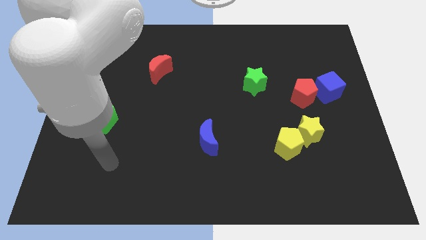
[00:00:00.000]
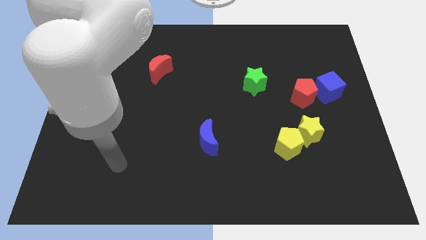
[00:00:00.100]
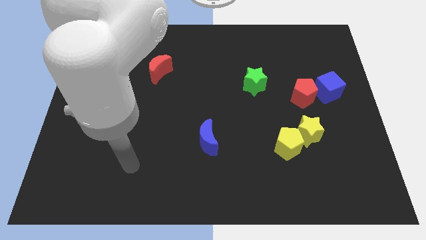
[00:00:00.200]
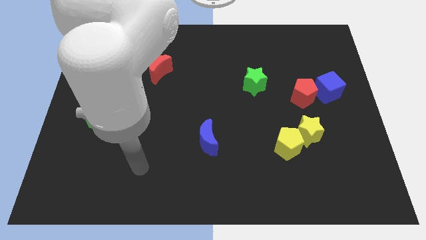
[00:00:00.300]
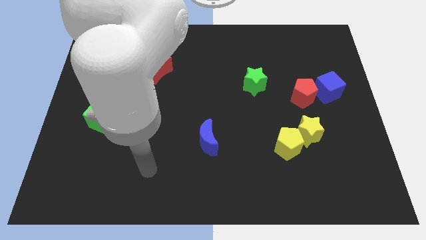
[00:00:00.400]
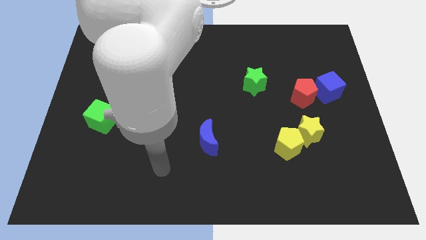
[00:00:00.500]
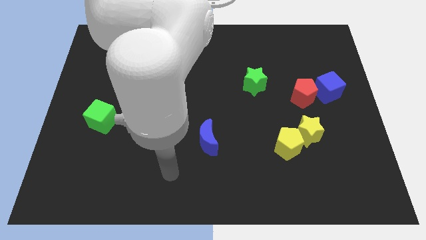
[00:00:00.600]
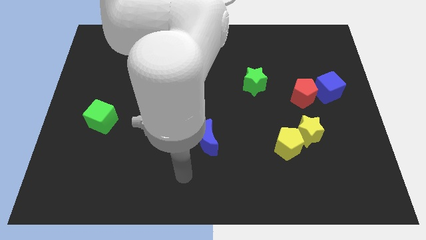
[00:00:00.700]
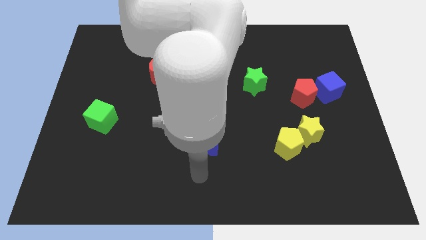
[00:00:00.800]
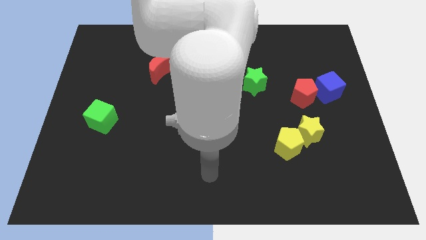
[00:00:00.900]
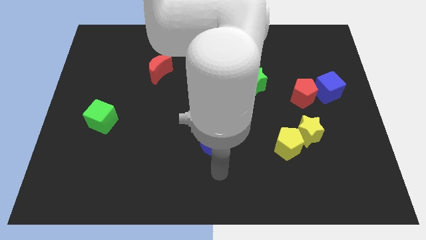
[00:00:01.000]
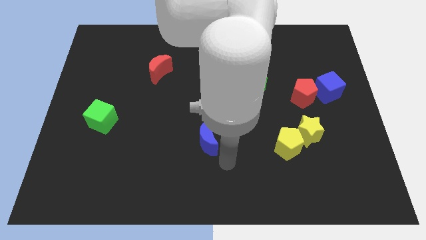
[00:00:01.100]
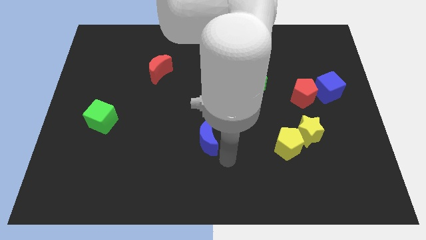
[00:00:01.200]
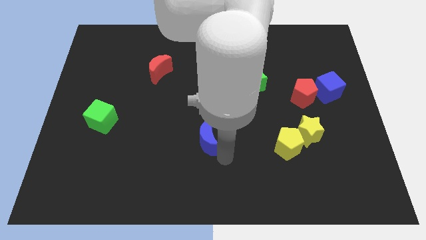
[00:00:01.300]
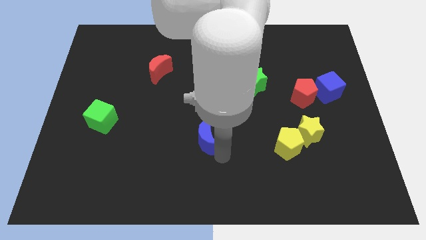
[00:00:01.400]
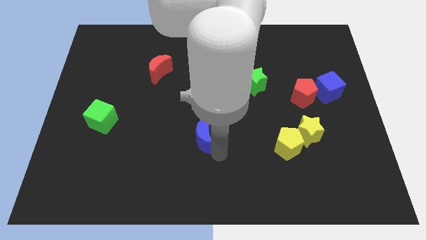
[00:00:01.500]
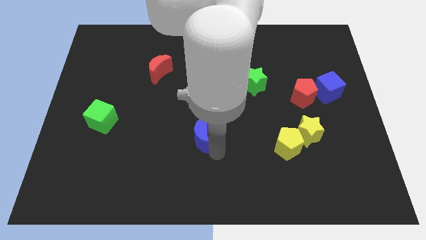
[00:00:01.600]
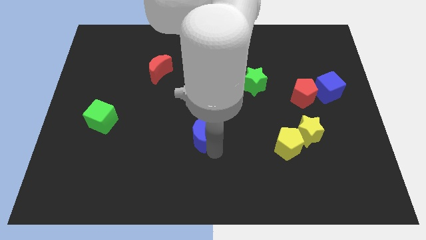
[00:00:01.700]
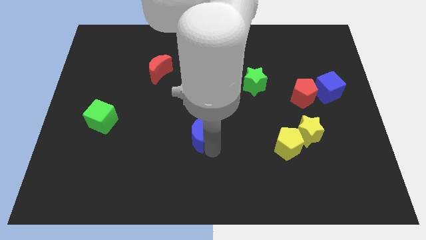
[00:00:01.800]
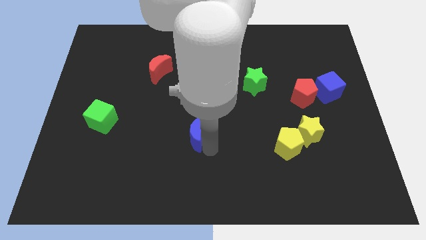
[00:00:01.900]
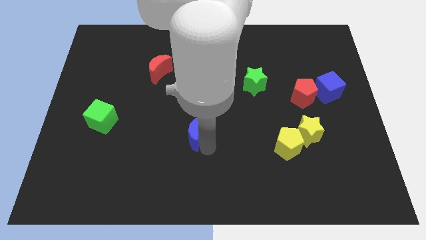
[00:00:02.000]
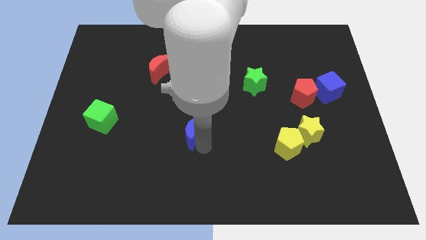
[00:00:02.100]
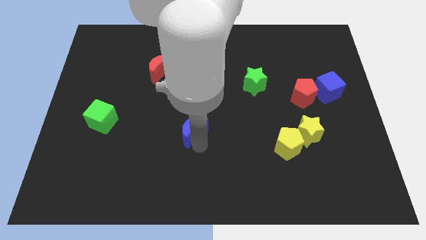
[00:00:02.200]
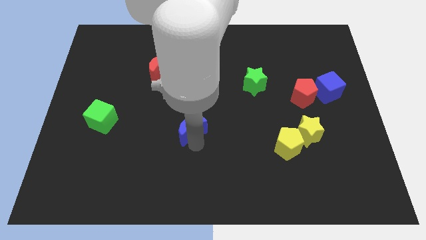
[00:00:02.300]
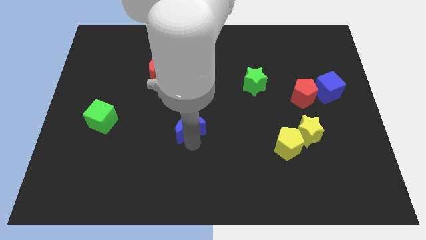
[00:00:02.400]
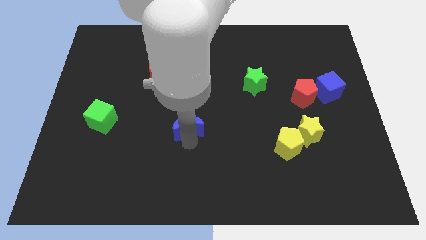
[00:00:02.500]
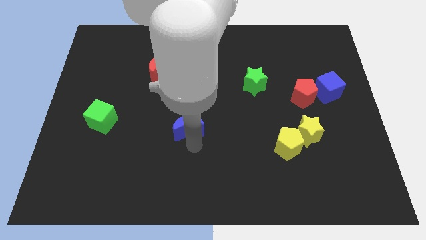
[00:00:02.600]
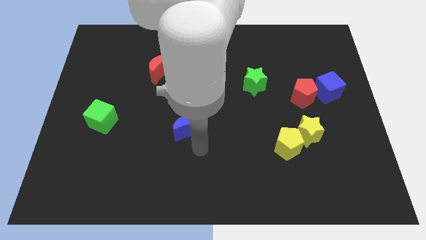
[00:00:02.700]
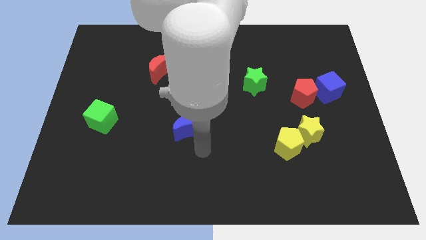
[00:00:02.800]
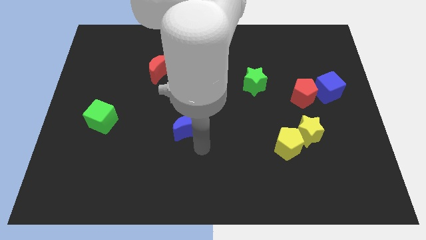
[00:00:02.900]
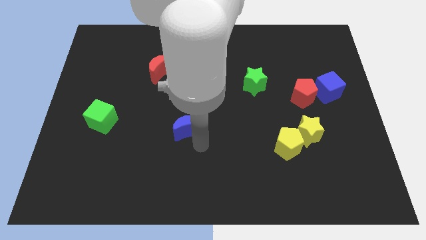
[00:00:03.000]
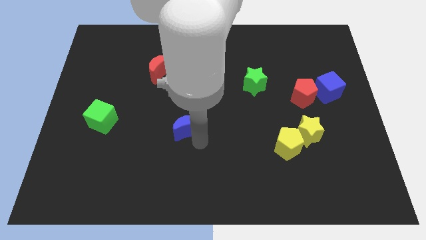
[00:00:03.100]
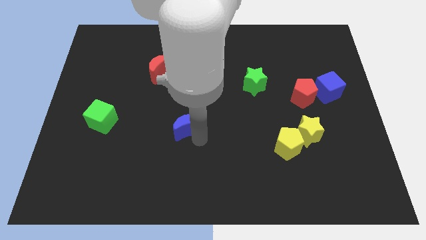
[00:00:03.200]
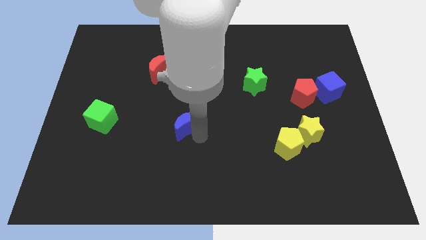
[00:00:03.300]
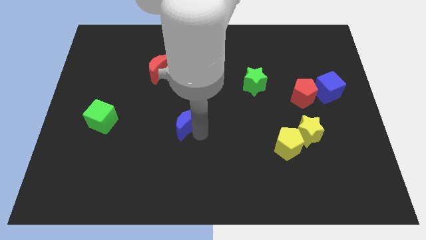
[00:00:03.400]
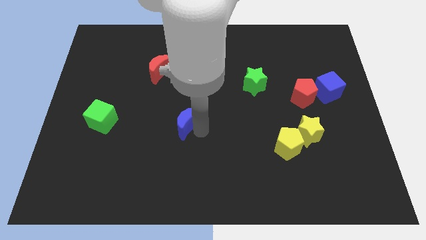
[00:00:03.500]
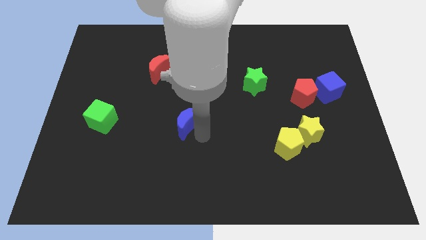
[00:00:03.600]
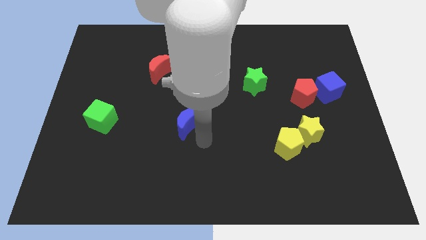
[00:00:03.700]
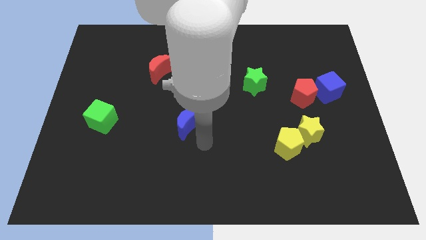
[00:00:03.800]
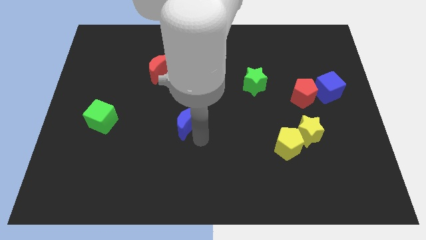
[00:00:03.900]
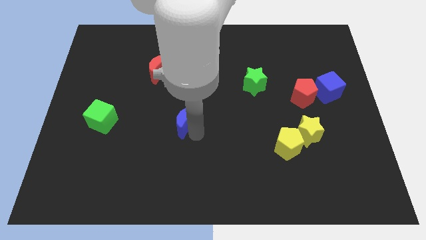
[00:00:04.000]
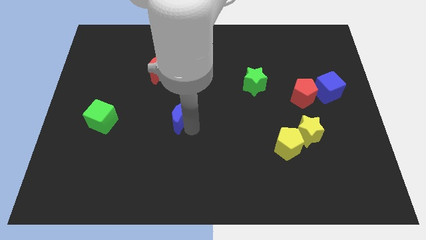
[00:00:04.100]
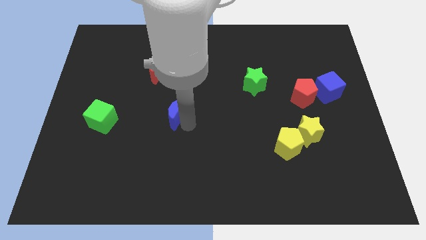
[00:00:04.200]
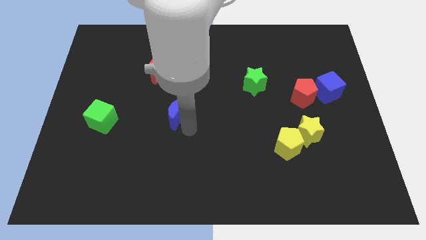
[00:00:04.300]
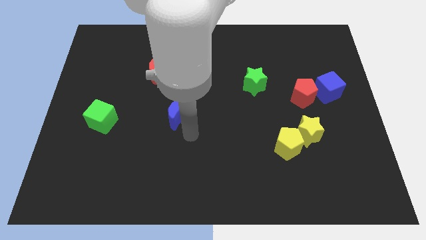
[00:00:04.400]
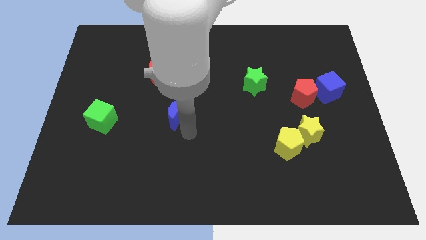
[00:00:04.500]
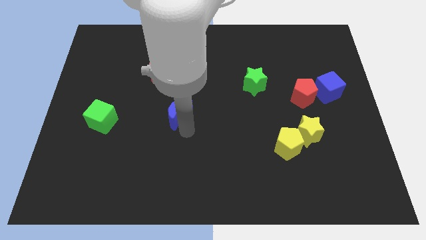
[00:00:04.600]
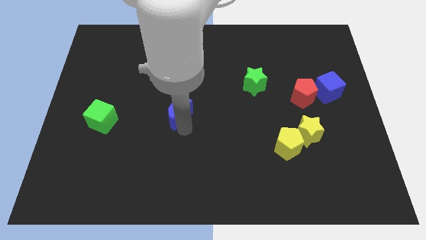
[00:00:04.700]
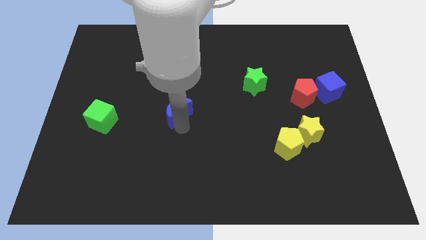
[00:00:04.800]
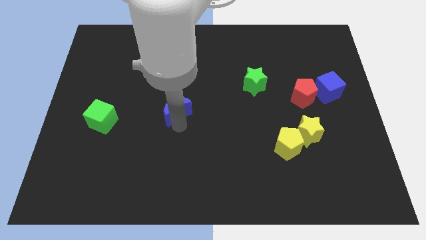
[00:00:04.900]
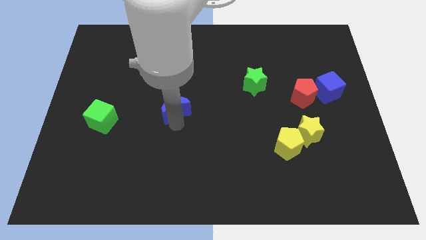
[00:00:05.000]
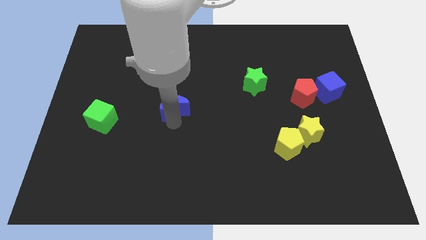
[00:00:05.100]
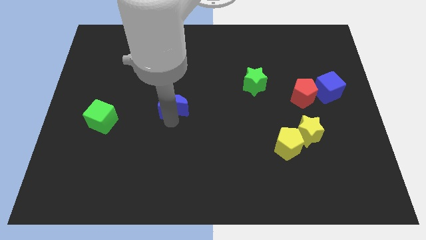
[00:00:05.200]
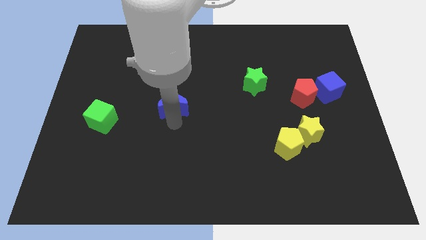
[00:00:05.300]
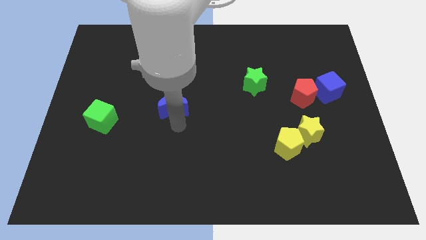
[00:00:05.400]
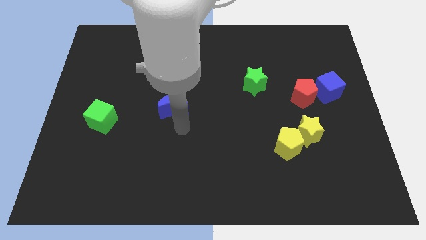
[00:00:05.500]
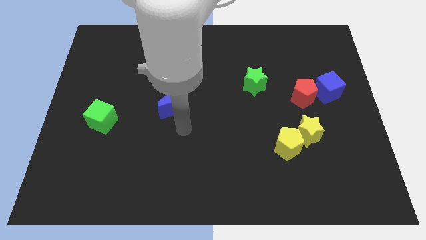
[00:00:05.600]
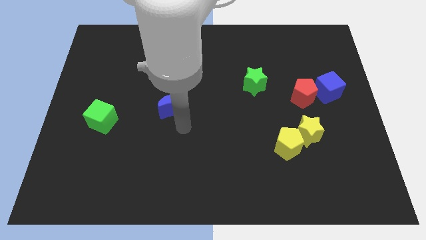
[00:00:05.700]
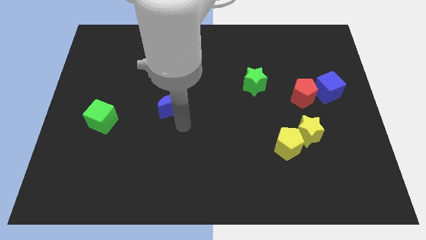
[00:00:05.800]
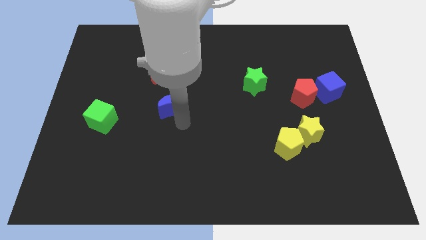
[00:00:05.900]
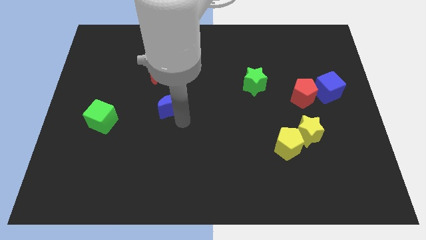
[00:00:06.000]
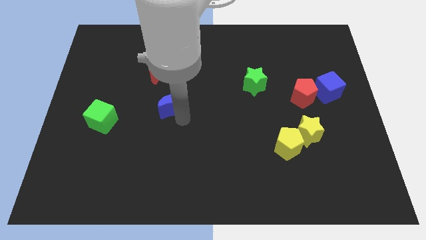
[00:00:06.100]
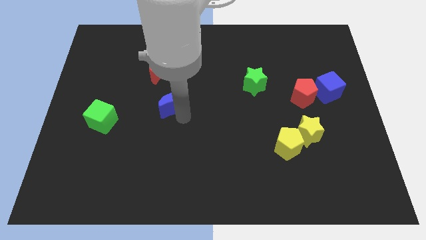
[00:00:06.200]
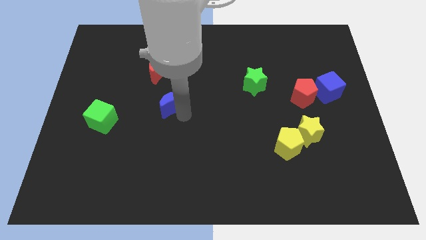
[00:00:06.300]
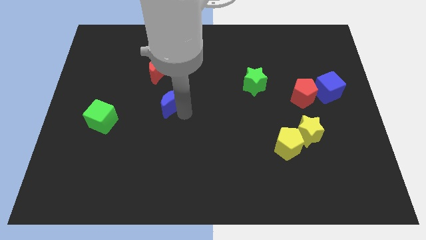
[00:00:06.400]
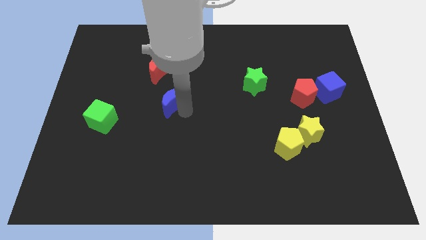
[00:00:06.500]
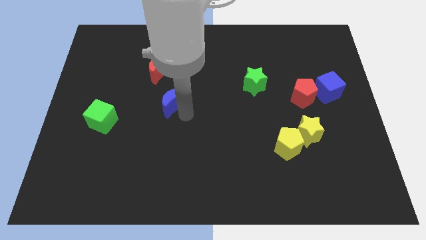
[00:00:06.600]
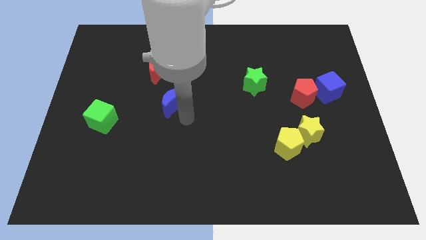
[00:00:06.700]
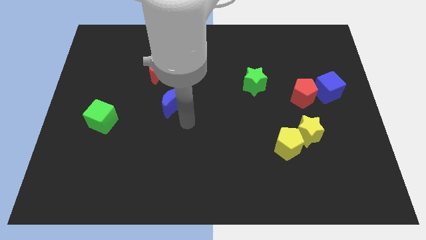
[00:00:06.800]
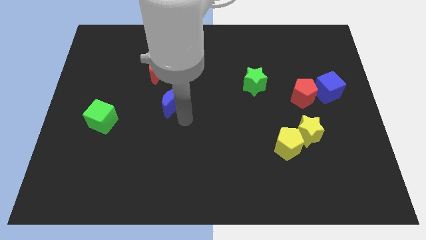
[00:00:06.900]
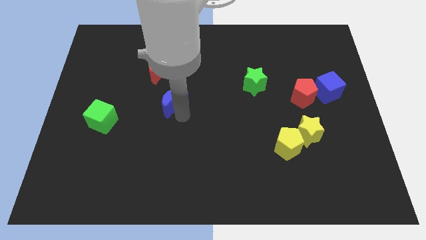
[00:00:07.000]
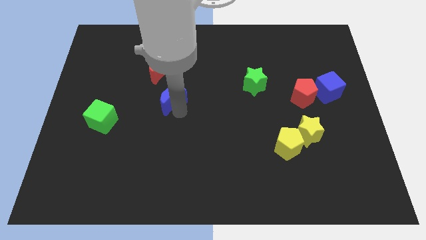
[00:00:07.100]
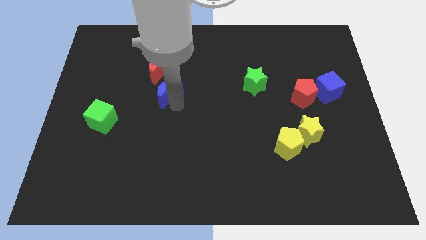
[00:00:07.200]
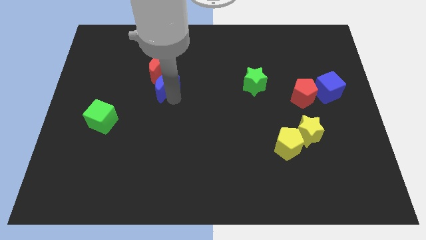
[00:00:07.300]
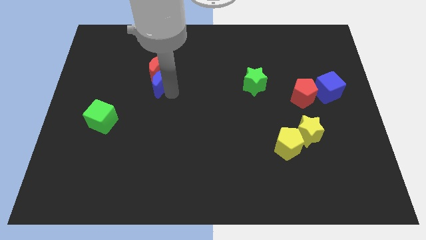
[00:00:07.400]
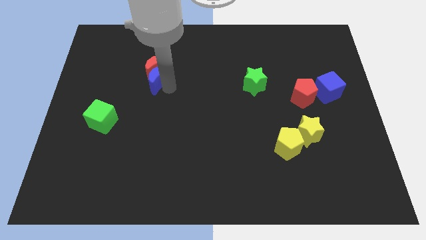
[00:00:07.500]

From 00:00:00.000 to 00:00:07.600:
push the blue moon upwards and then to the left

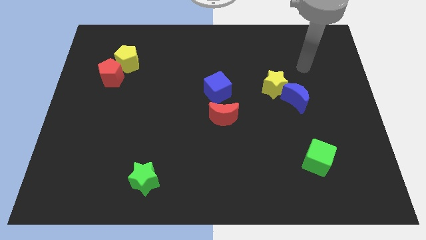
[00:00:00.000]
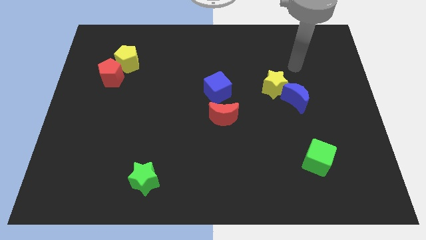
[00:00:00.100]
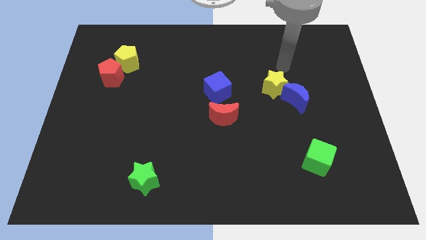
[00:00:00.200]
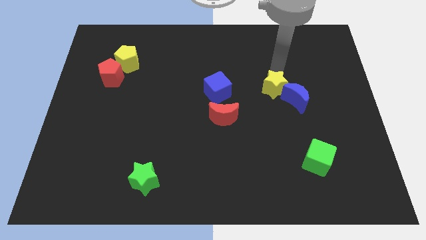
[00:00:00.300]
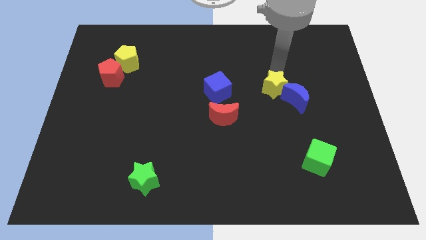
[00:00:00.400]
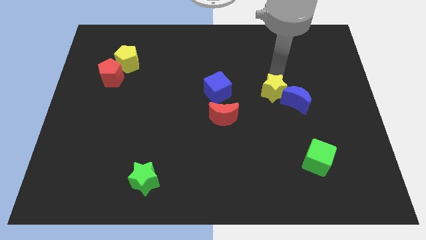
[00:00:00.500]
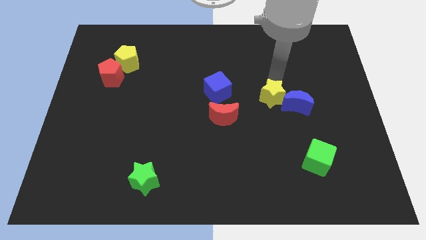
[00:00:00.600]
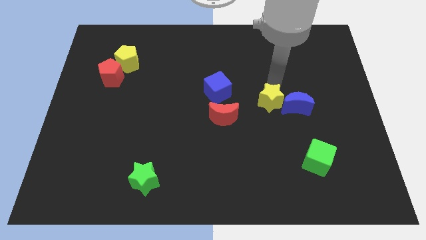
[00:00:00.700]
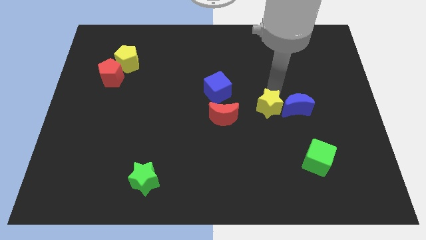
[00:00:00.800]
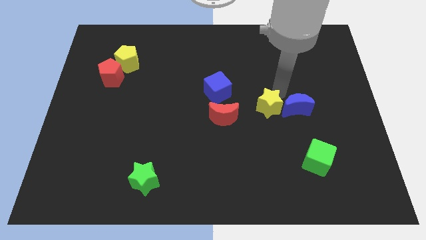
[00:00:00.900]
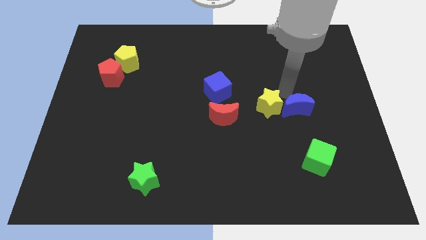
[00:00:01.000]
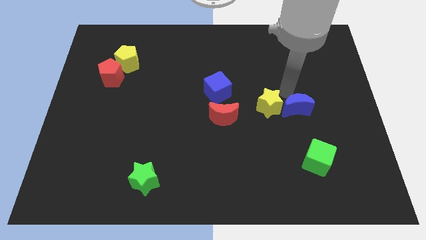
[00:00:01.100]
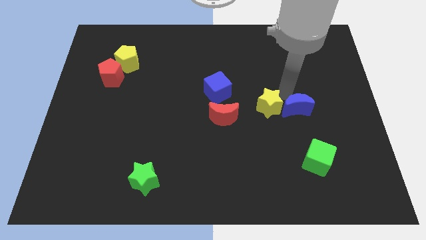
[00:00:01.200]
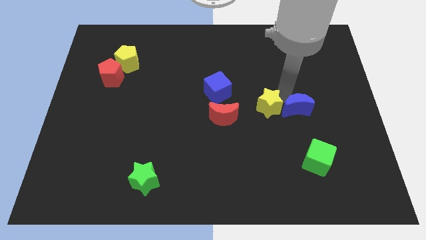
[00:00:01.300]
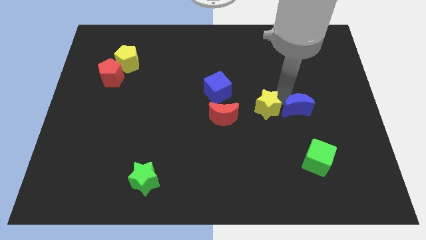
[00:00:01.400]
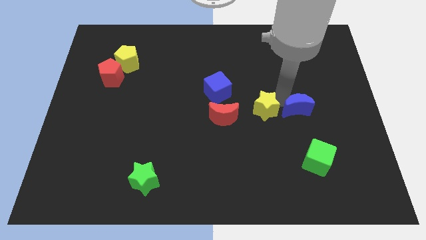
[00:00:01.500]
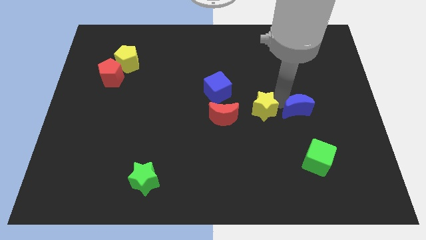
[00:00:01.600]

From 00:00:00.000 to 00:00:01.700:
slightly move the yellow star diagonally downwards and left
